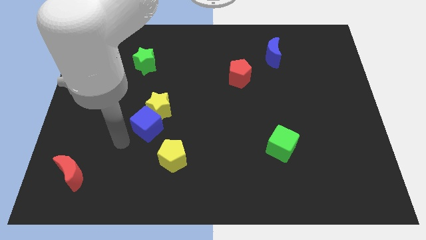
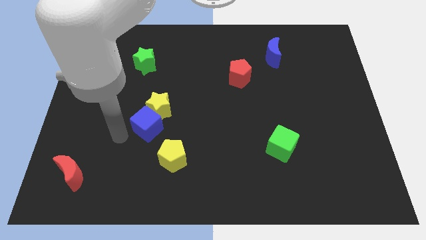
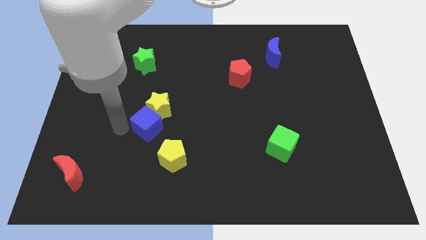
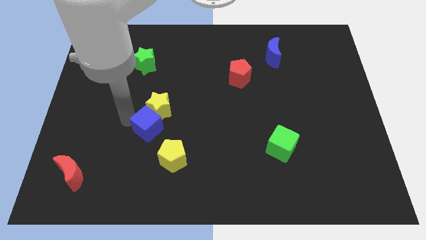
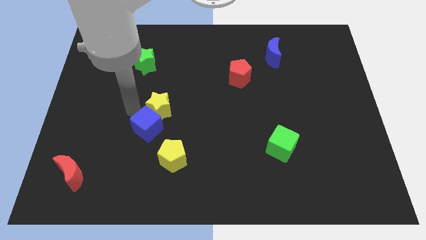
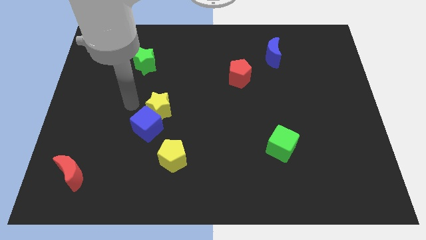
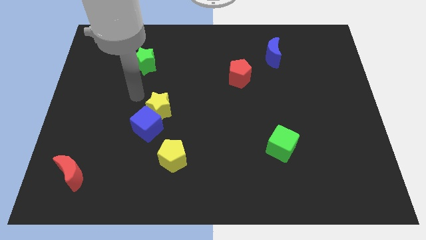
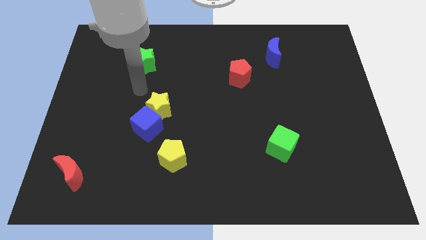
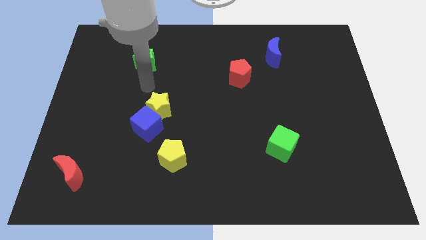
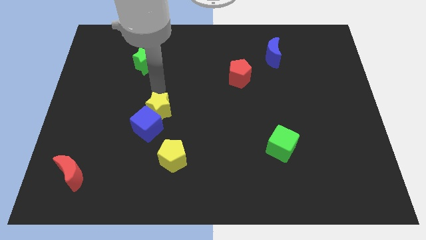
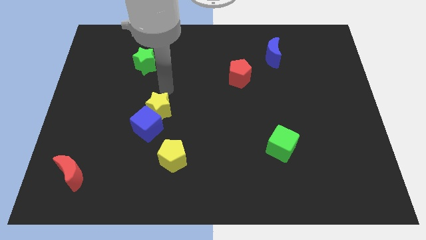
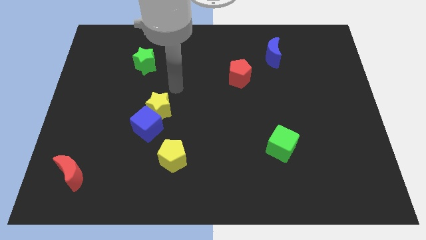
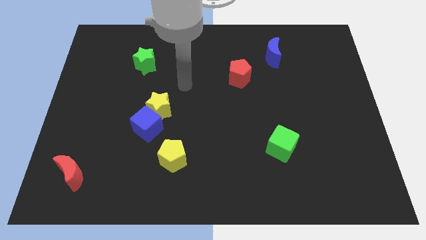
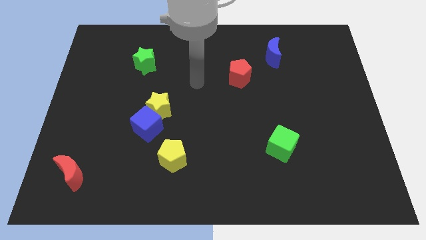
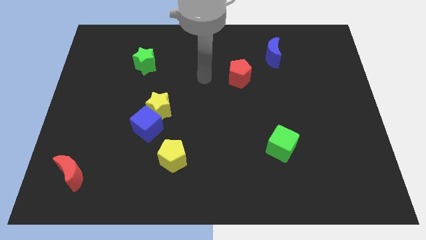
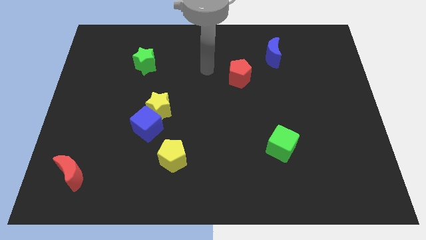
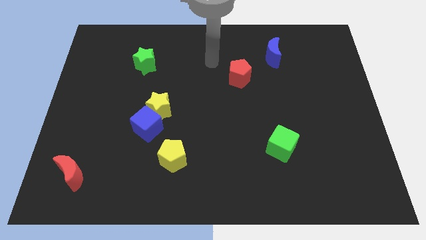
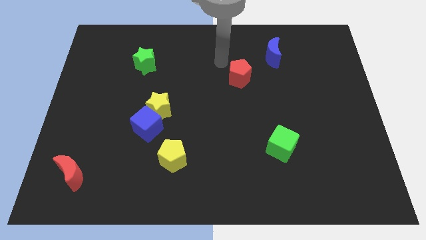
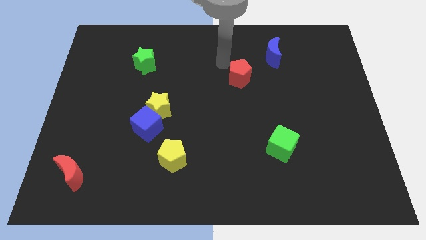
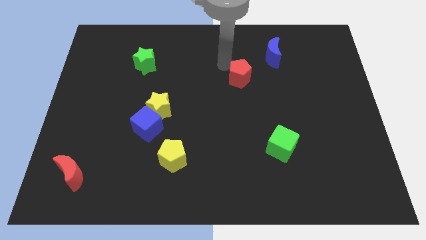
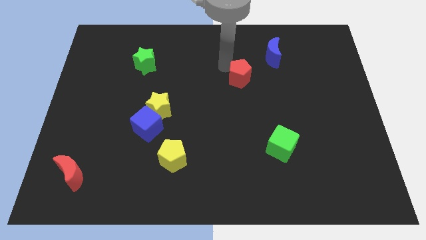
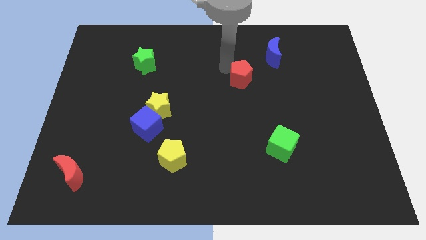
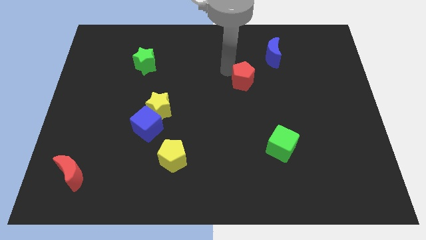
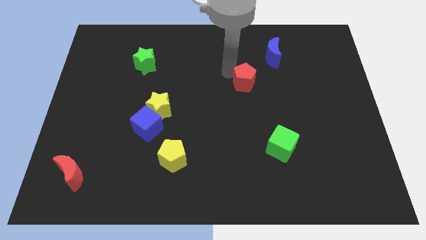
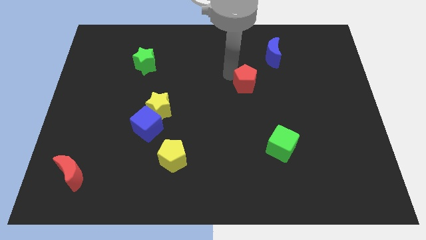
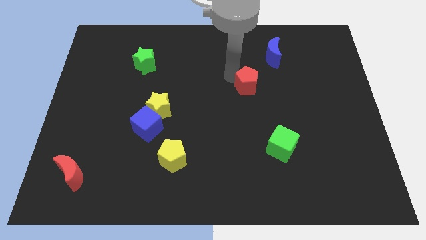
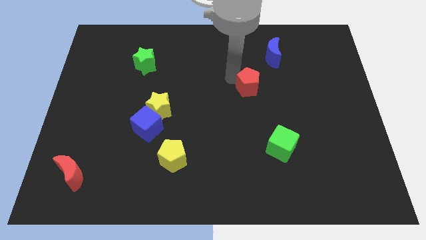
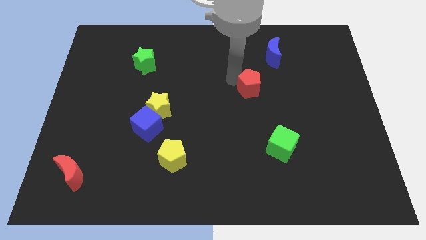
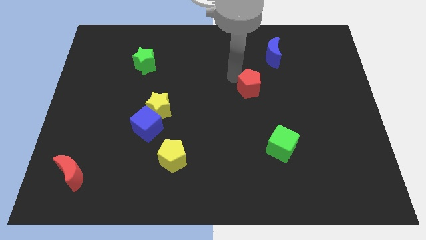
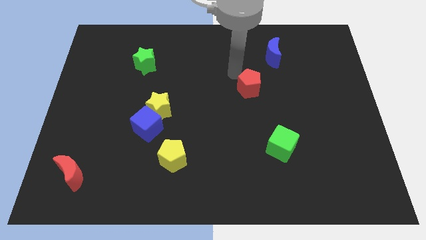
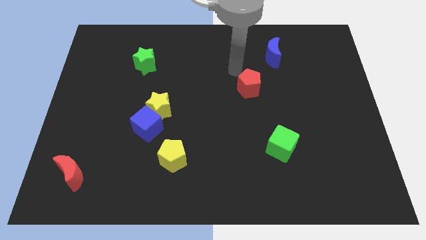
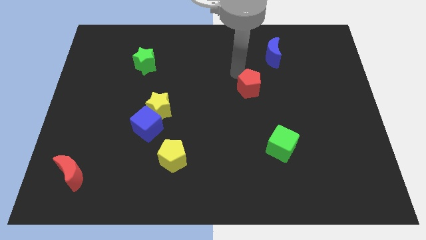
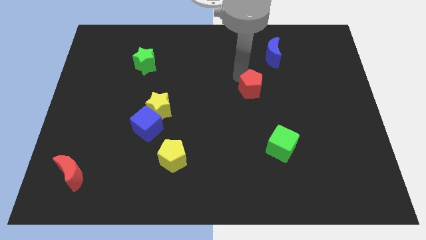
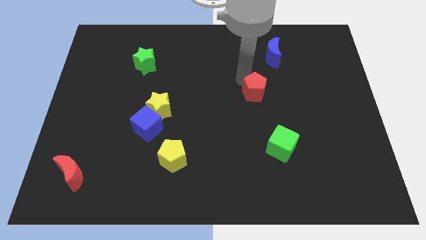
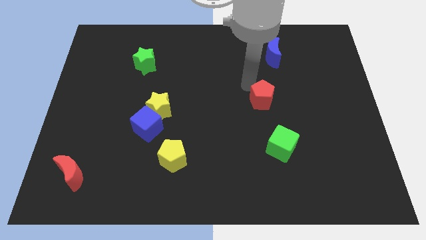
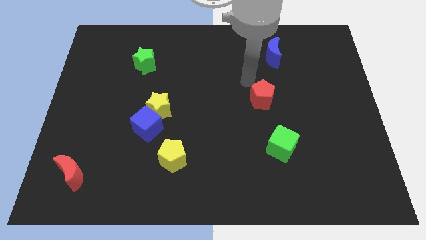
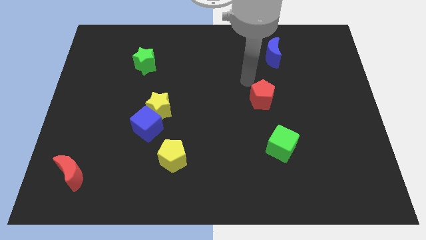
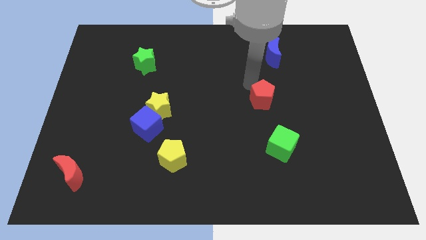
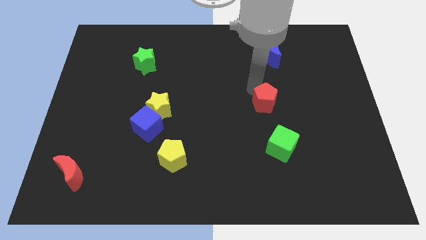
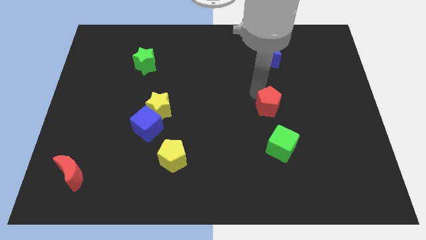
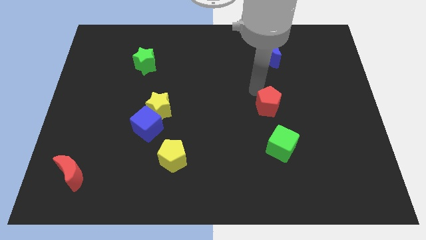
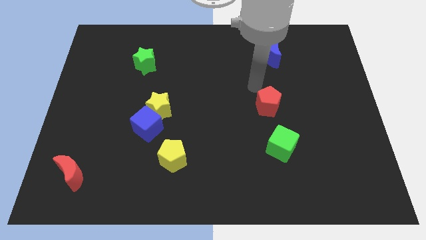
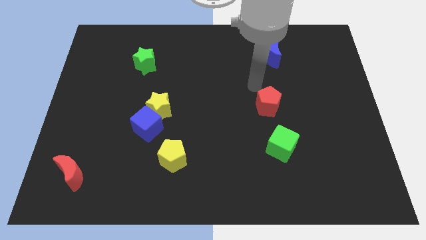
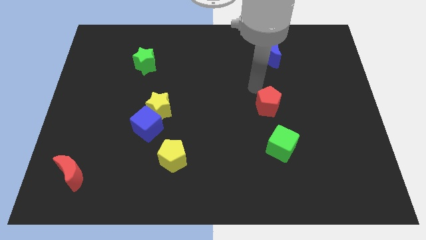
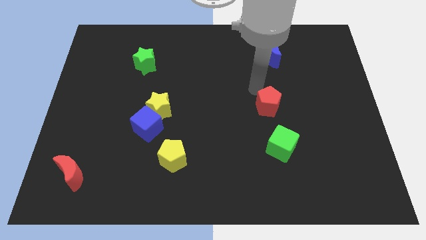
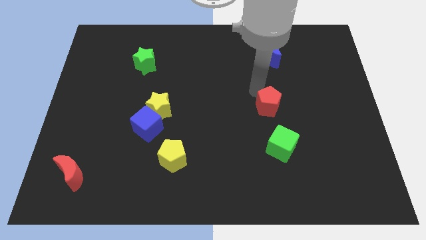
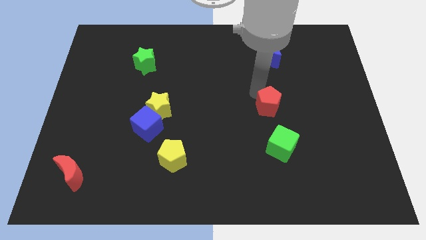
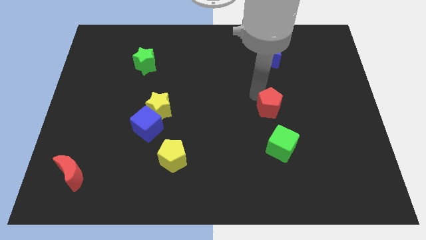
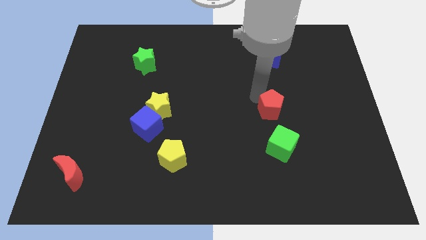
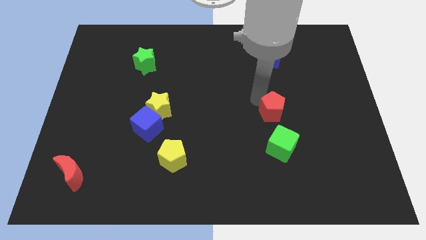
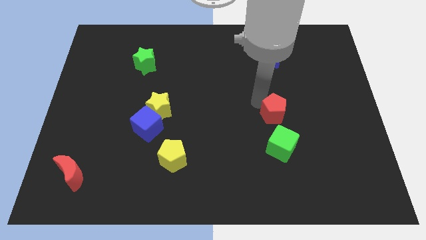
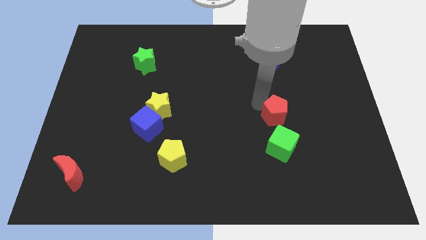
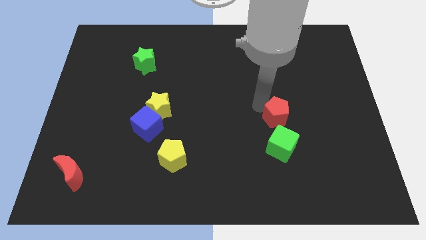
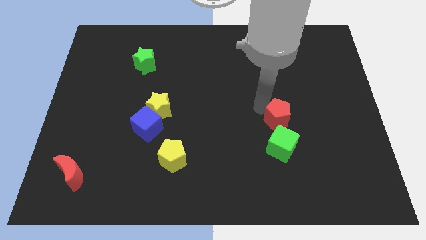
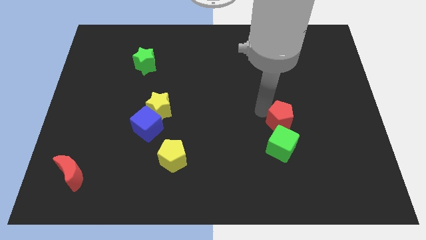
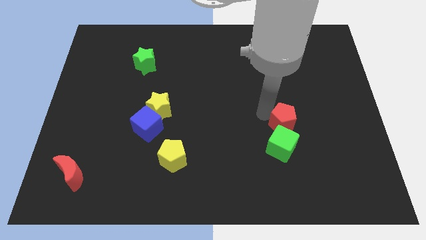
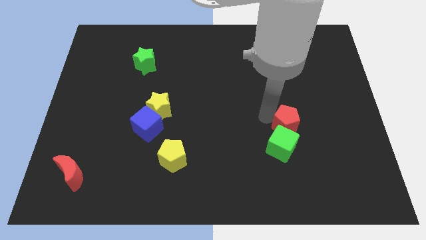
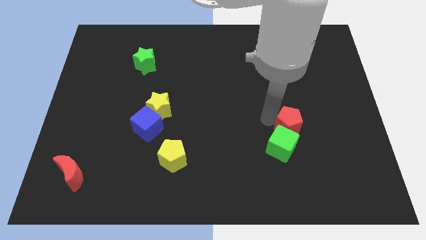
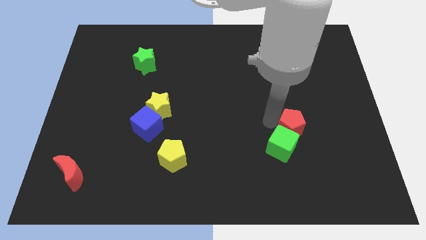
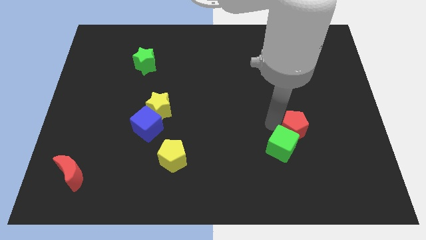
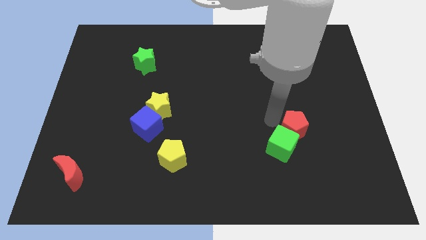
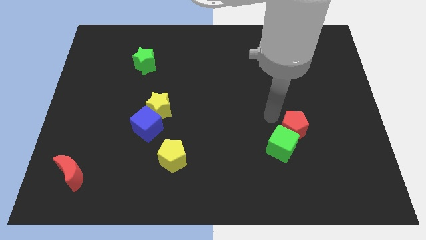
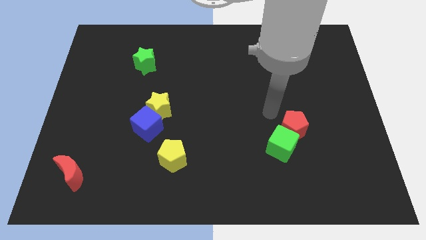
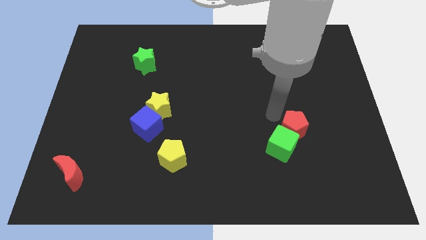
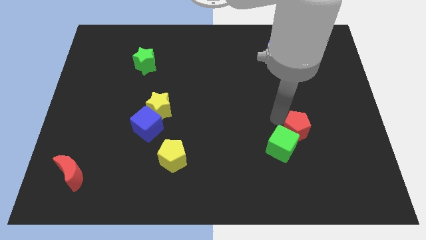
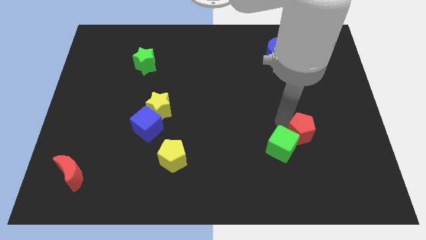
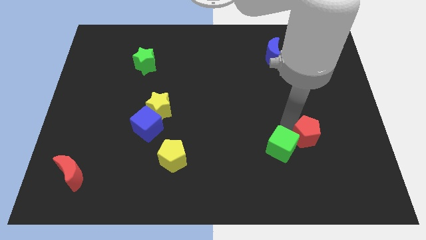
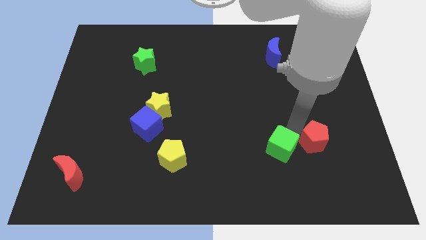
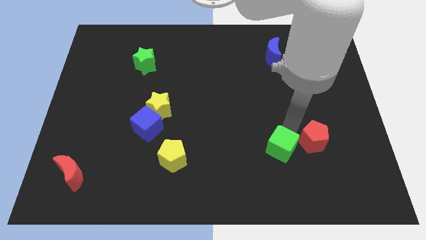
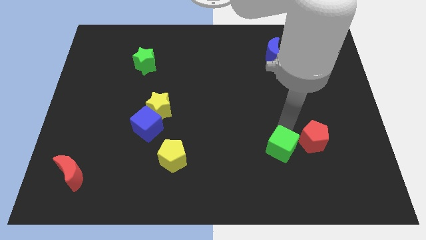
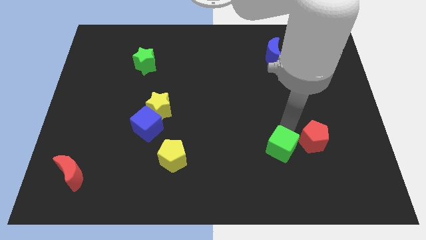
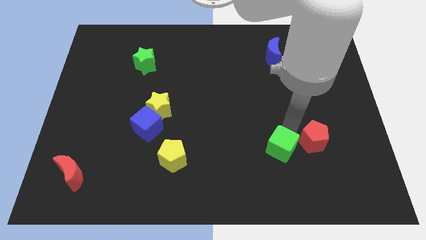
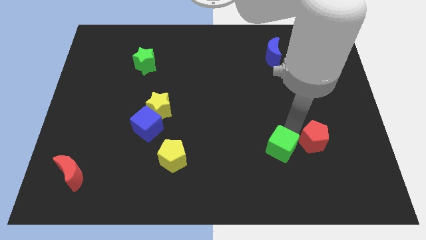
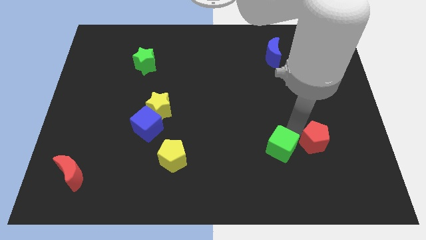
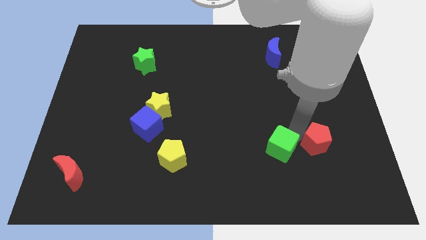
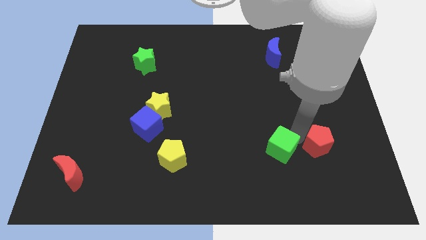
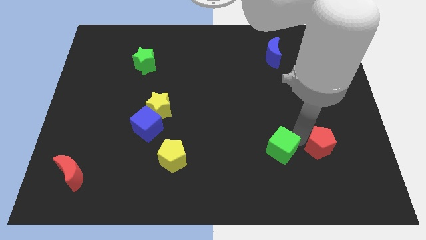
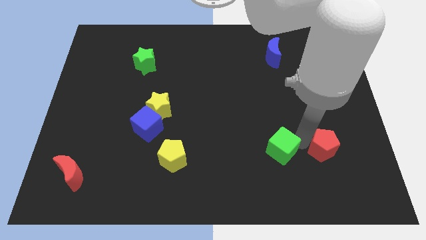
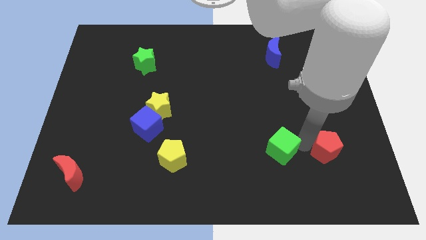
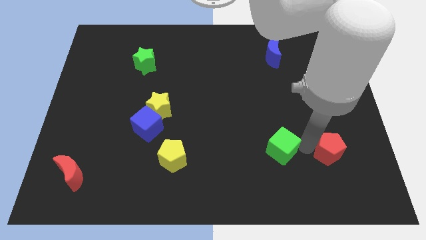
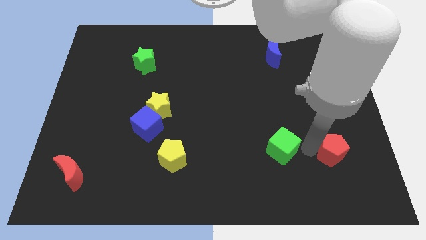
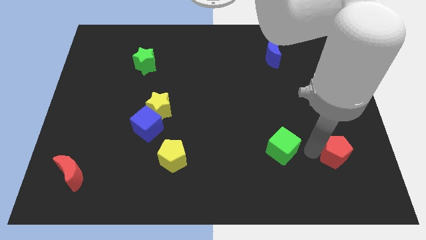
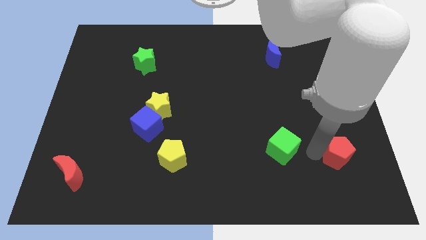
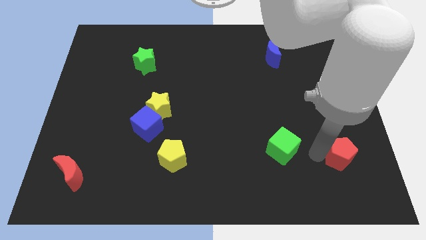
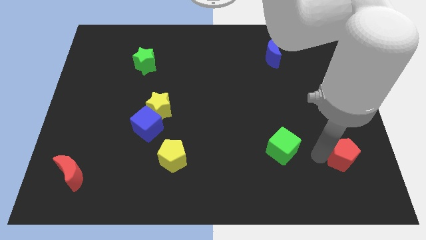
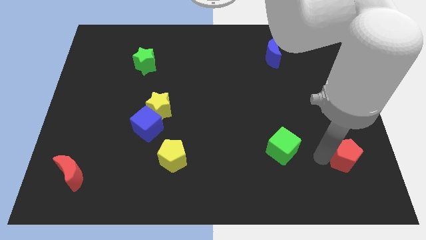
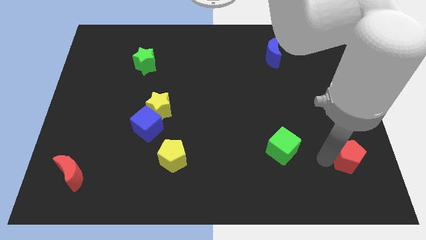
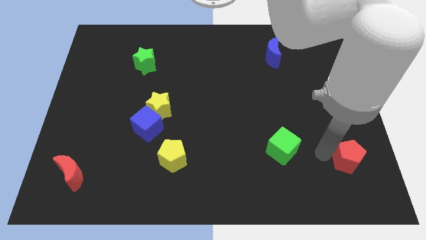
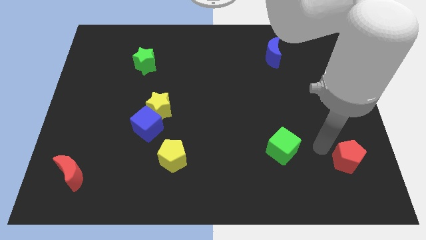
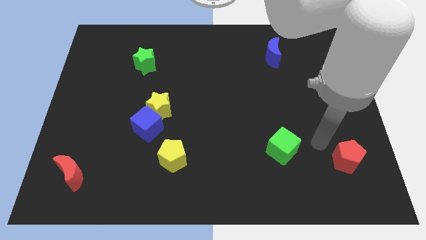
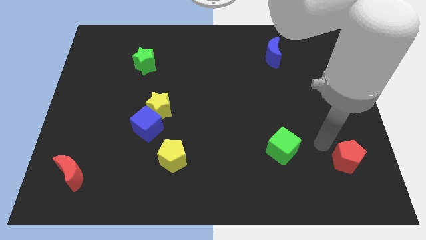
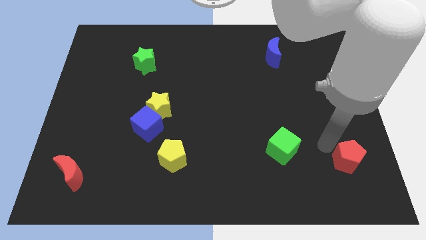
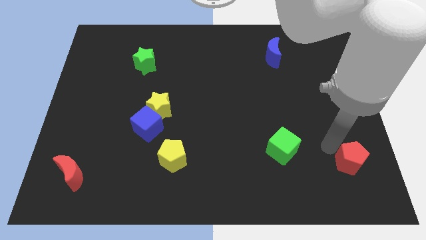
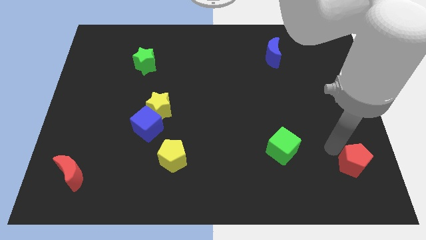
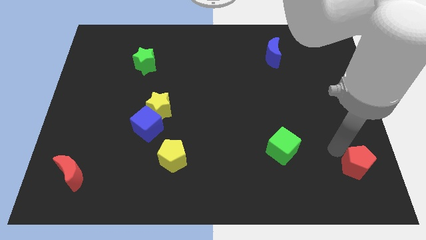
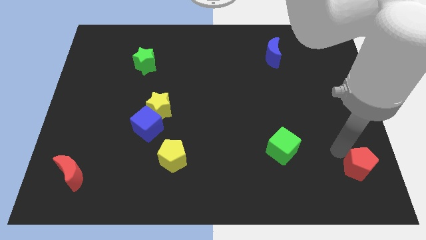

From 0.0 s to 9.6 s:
slide the red pentagon to the bottom right
